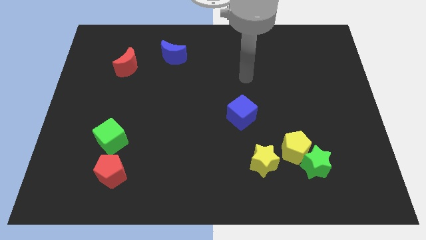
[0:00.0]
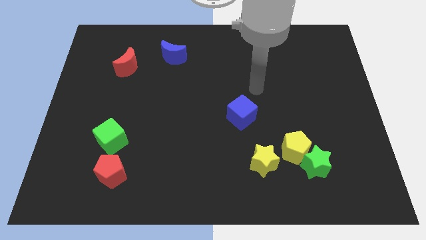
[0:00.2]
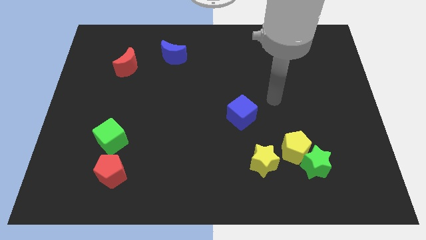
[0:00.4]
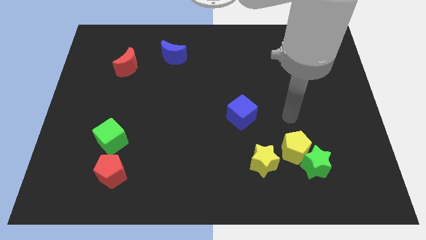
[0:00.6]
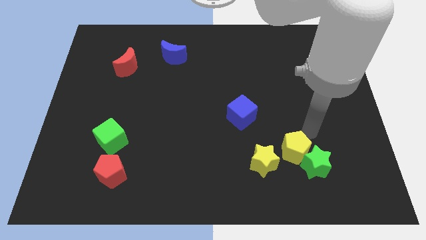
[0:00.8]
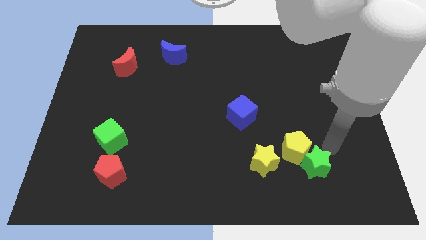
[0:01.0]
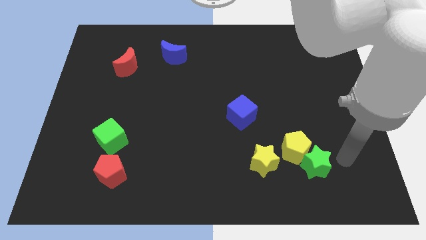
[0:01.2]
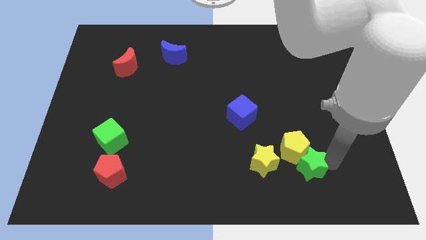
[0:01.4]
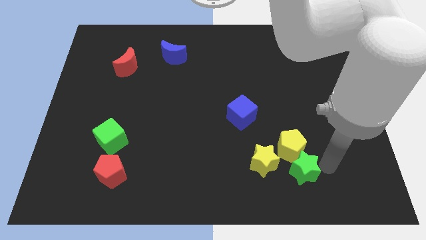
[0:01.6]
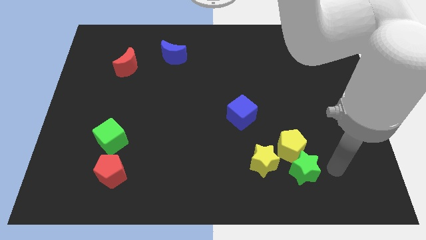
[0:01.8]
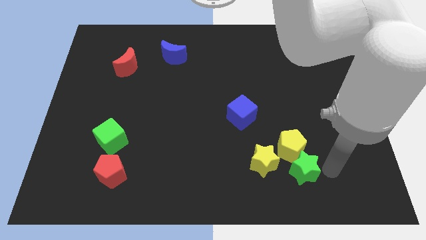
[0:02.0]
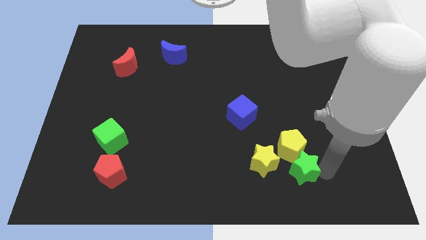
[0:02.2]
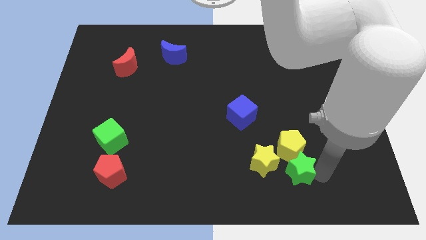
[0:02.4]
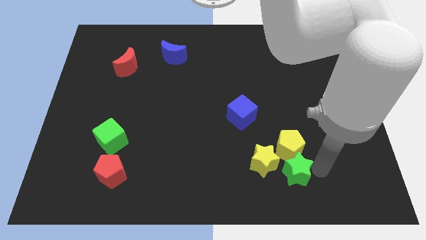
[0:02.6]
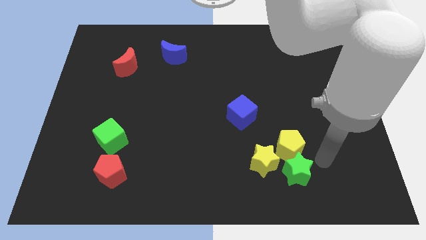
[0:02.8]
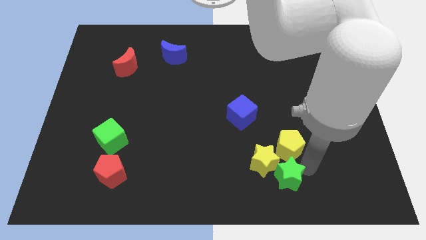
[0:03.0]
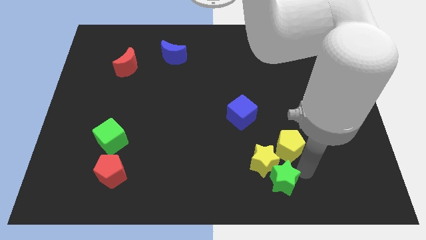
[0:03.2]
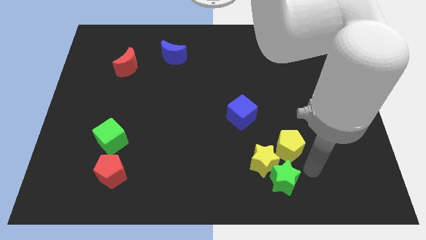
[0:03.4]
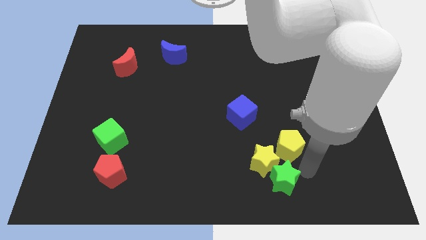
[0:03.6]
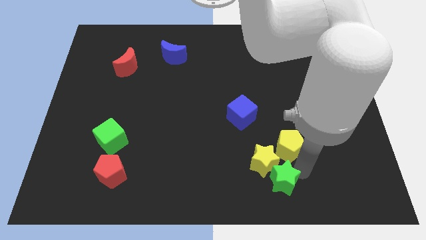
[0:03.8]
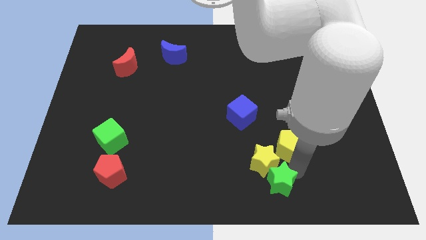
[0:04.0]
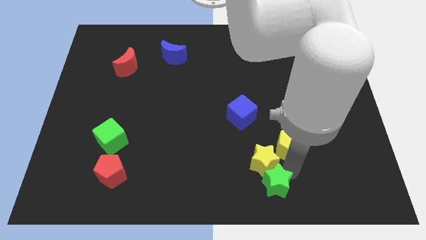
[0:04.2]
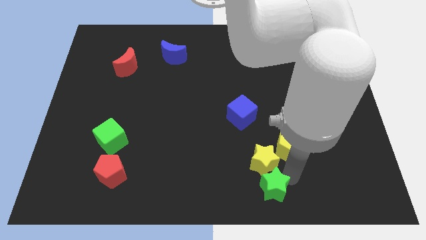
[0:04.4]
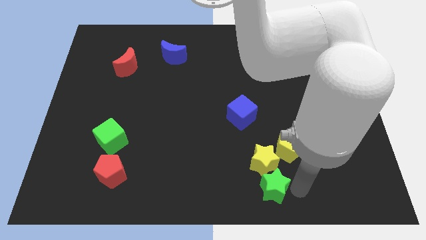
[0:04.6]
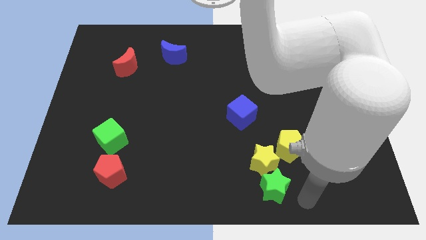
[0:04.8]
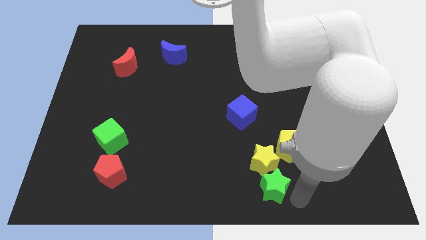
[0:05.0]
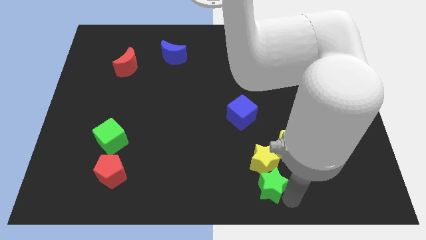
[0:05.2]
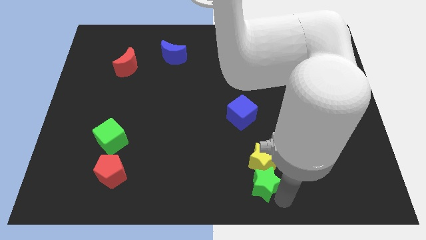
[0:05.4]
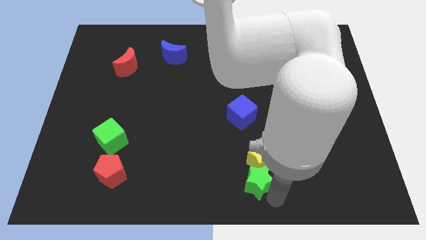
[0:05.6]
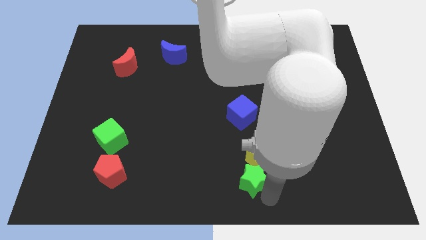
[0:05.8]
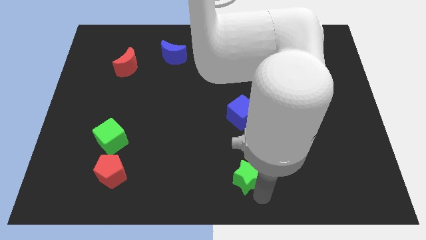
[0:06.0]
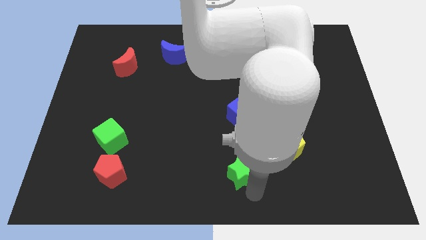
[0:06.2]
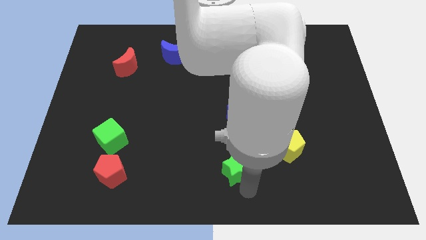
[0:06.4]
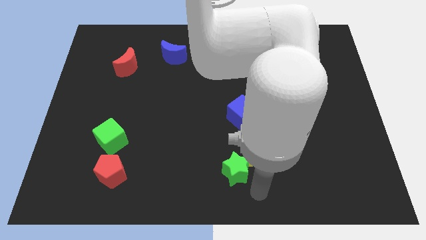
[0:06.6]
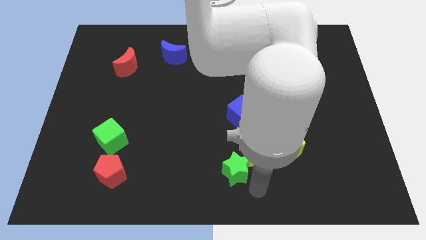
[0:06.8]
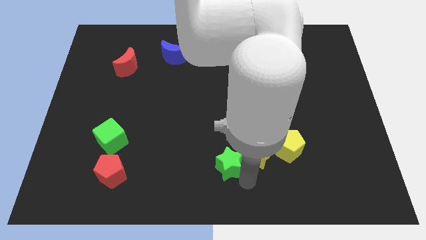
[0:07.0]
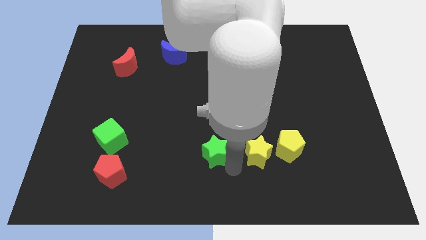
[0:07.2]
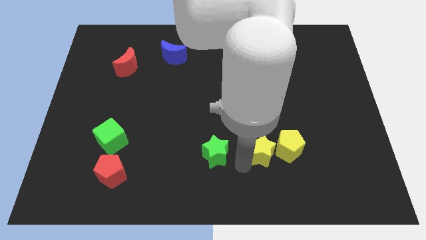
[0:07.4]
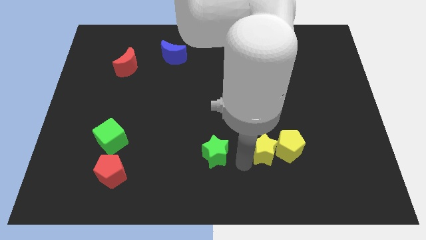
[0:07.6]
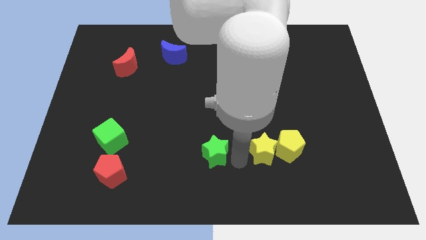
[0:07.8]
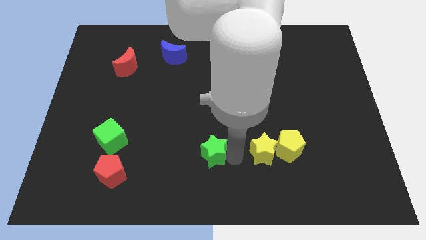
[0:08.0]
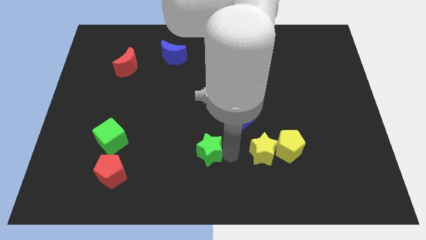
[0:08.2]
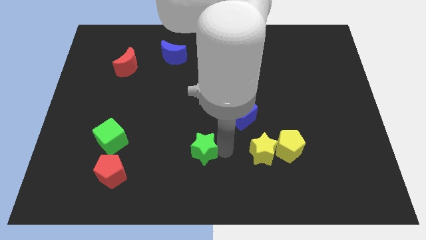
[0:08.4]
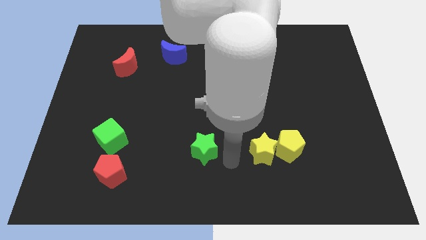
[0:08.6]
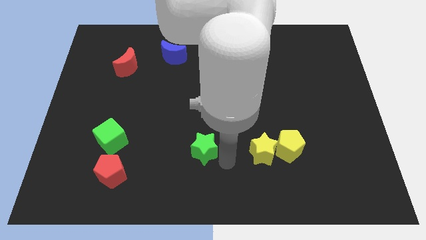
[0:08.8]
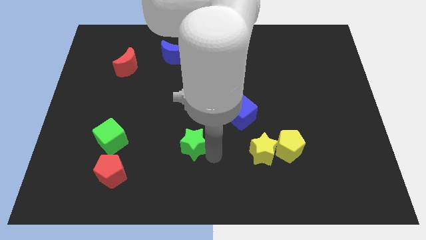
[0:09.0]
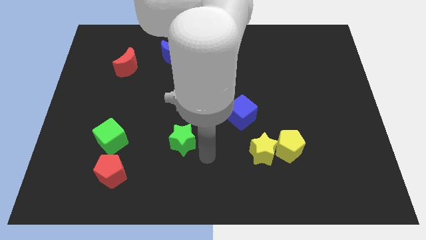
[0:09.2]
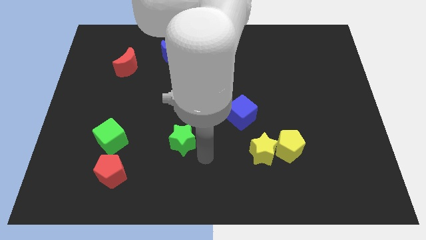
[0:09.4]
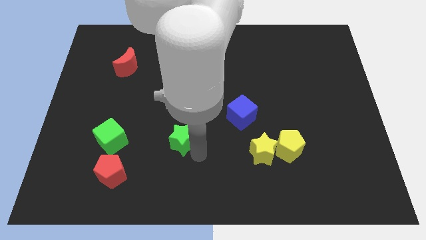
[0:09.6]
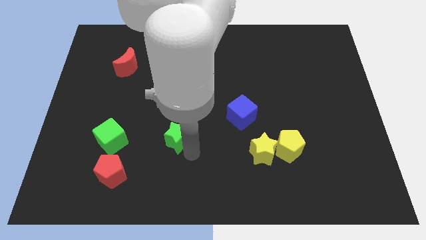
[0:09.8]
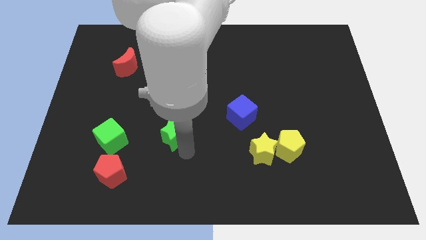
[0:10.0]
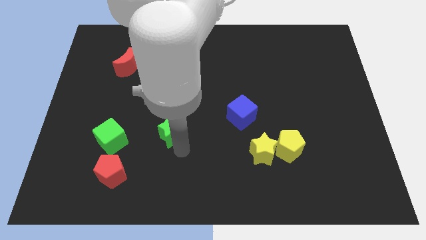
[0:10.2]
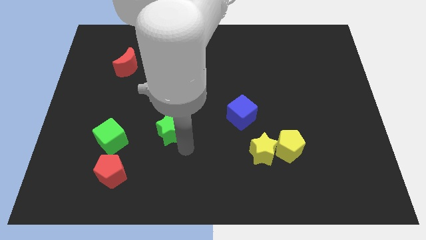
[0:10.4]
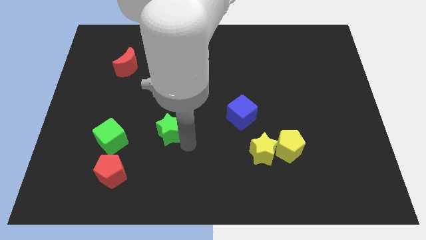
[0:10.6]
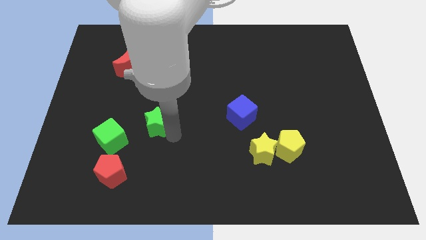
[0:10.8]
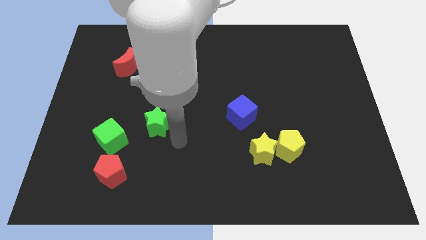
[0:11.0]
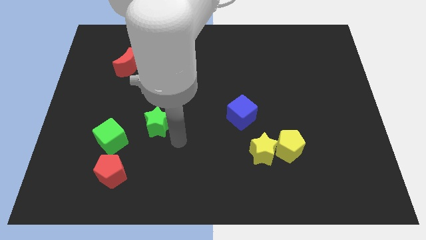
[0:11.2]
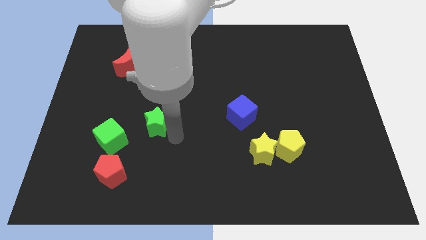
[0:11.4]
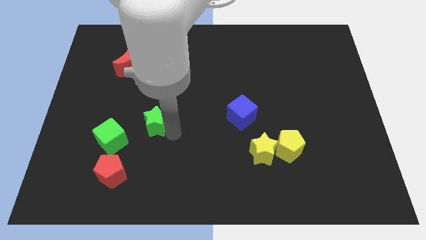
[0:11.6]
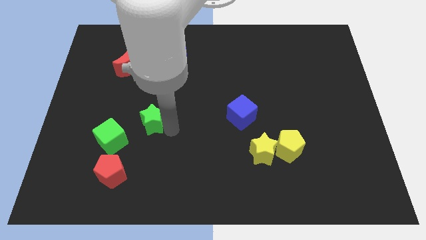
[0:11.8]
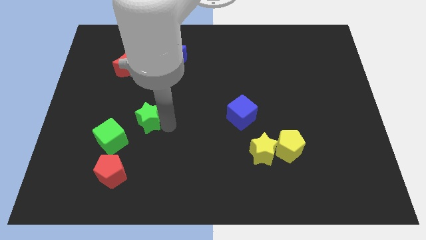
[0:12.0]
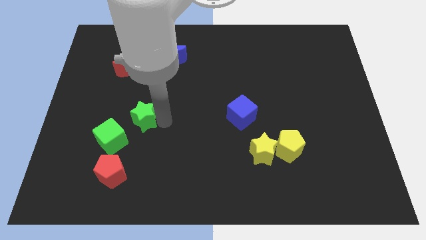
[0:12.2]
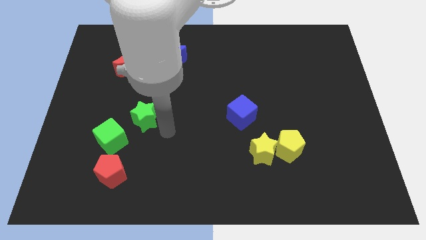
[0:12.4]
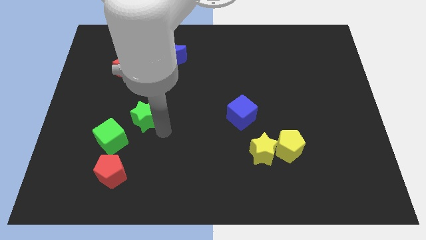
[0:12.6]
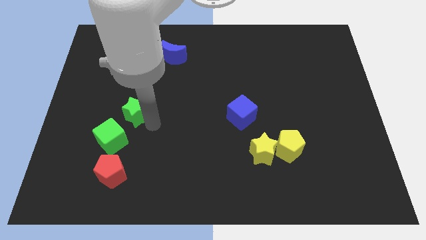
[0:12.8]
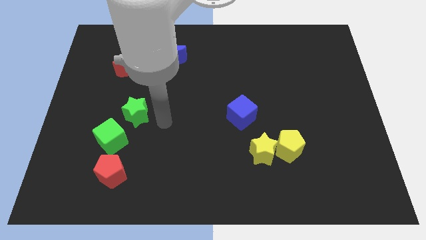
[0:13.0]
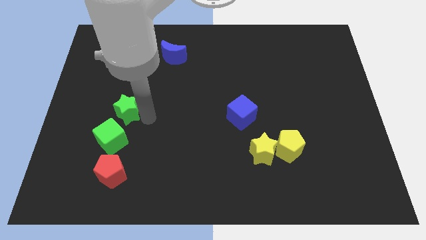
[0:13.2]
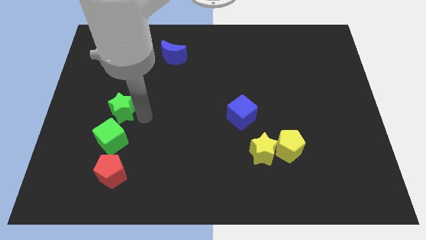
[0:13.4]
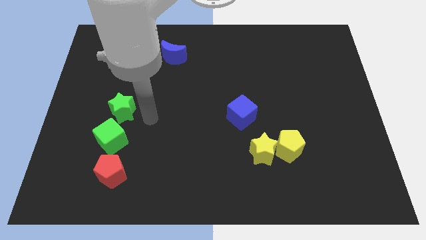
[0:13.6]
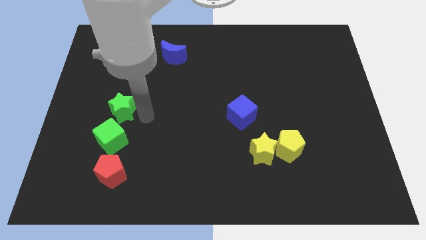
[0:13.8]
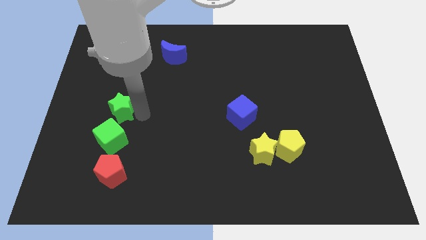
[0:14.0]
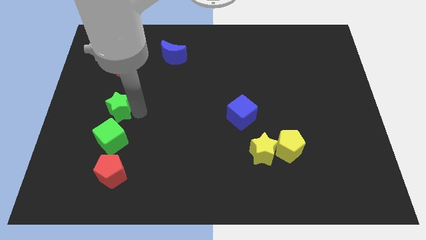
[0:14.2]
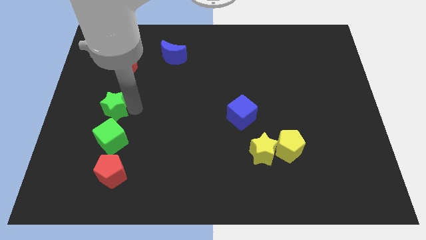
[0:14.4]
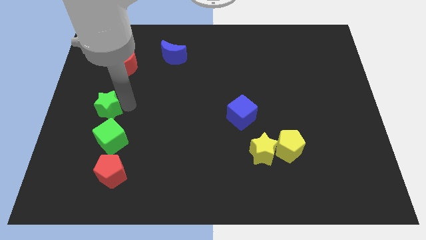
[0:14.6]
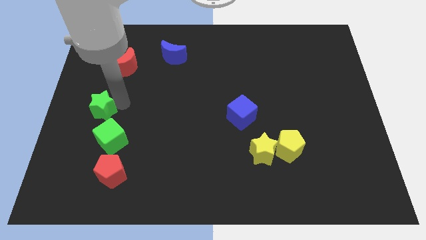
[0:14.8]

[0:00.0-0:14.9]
move the green star to the left side of the board

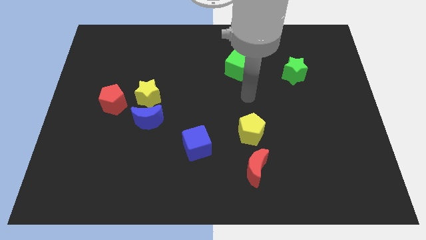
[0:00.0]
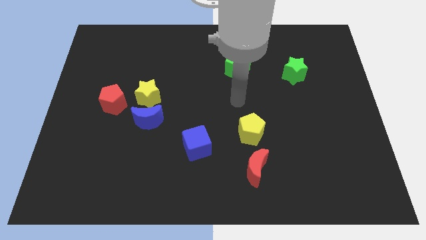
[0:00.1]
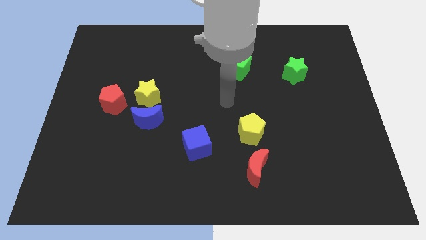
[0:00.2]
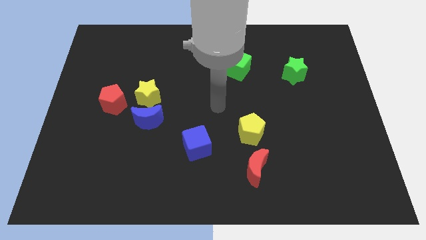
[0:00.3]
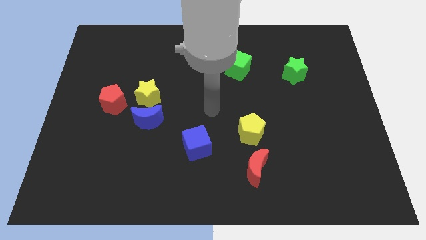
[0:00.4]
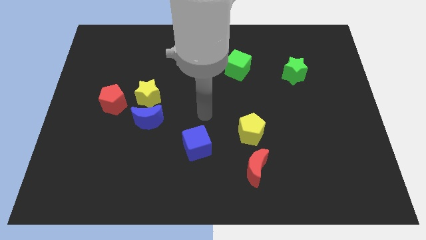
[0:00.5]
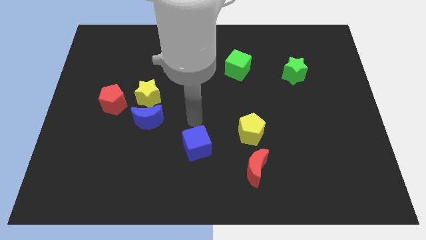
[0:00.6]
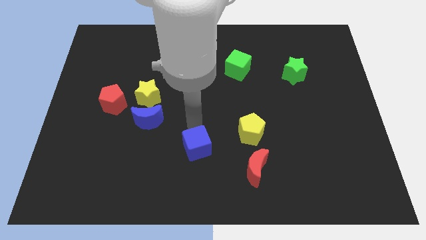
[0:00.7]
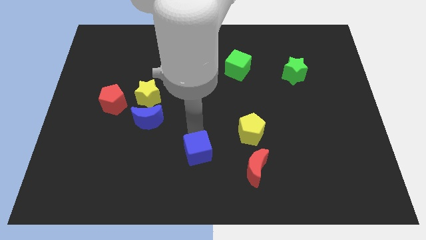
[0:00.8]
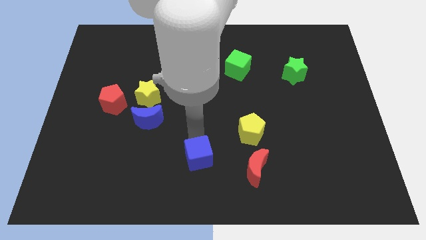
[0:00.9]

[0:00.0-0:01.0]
slide the blue cube to the bottom side
